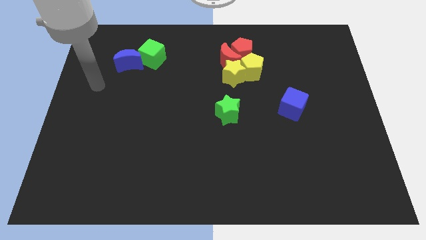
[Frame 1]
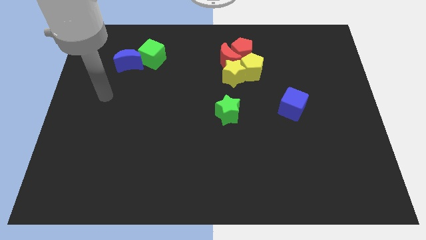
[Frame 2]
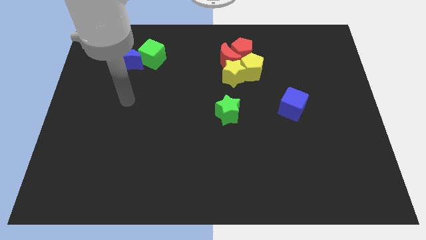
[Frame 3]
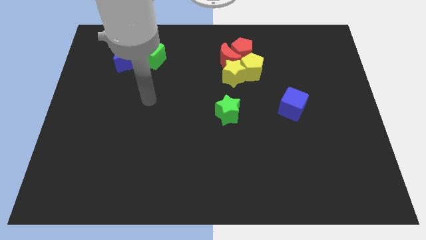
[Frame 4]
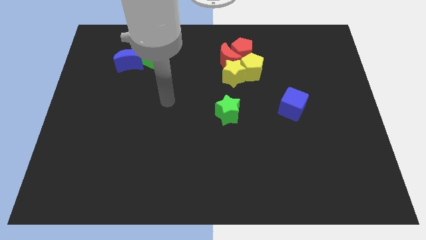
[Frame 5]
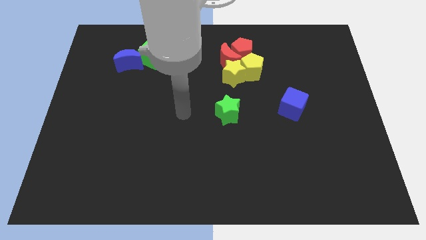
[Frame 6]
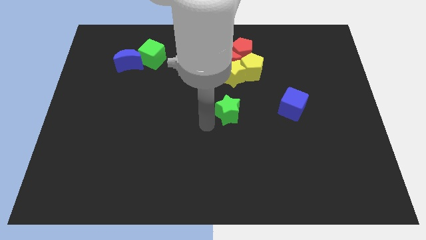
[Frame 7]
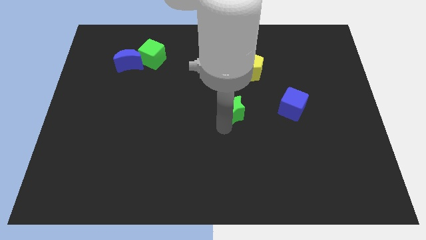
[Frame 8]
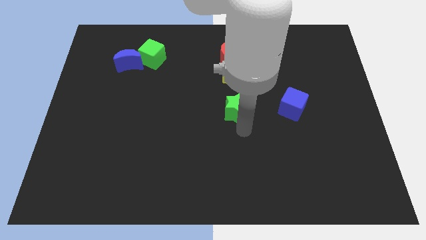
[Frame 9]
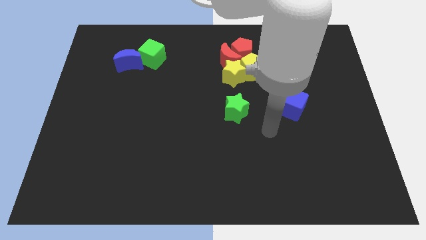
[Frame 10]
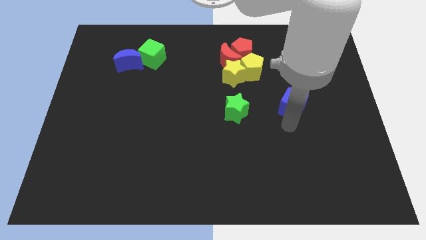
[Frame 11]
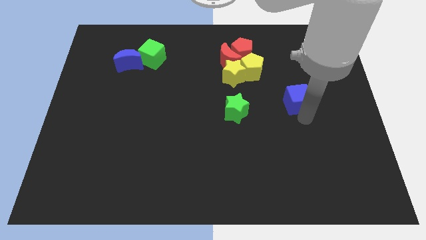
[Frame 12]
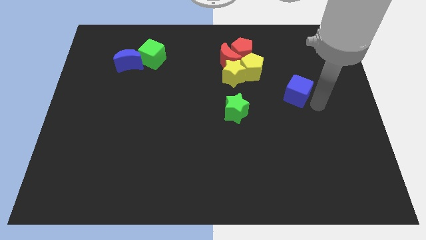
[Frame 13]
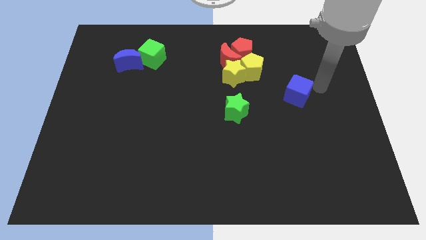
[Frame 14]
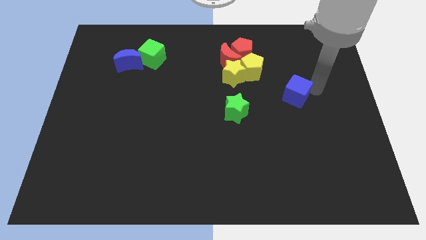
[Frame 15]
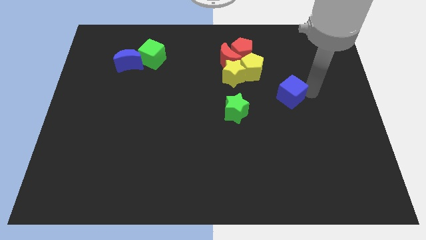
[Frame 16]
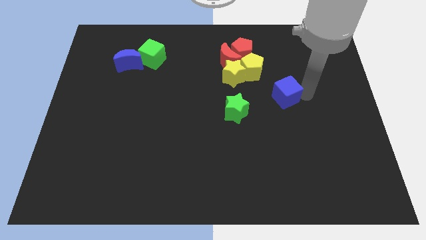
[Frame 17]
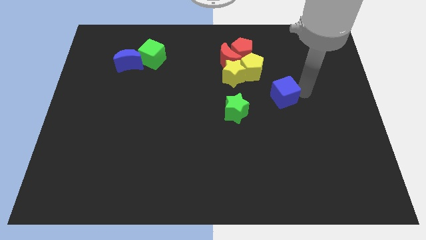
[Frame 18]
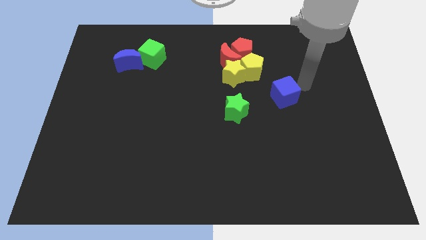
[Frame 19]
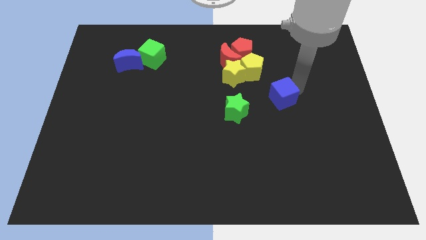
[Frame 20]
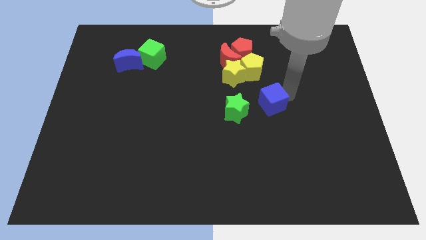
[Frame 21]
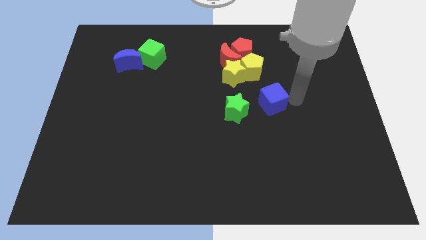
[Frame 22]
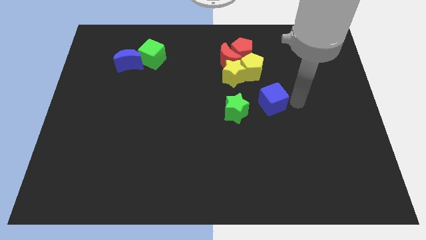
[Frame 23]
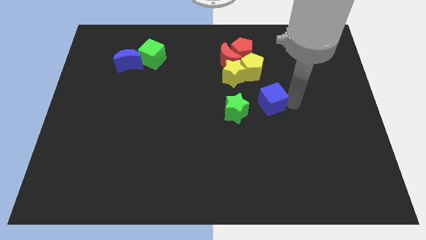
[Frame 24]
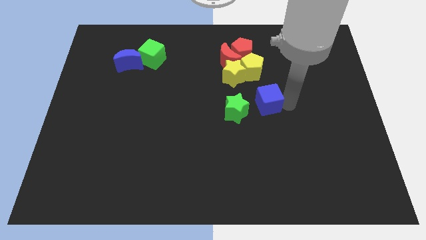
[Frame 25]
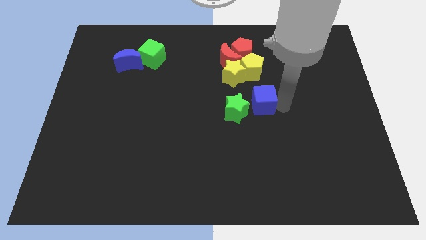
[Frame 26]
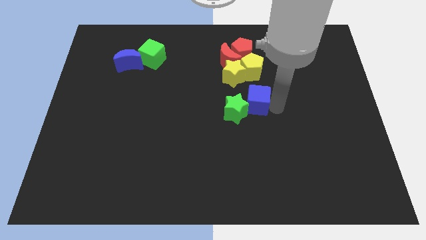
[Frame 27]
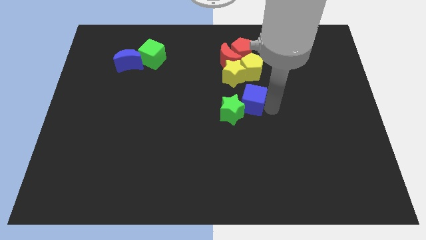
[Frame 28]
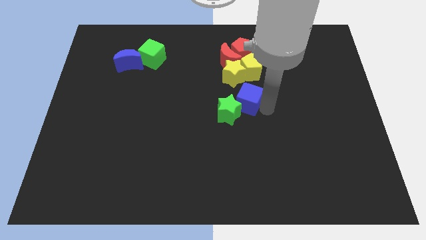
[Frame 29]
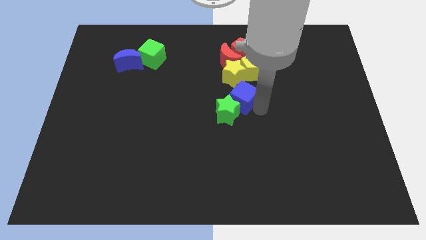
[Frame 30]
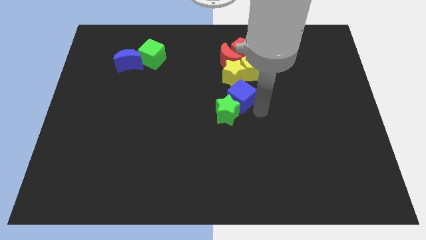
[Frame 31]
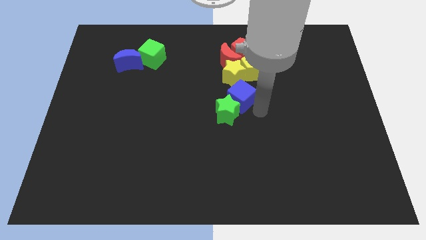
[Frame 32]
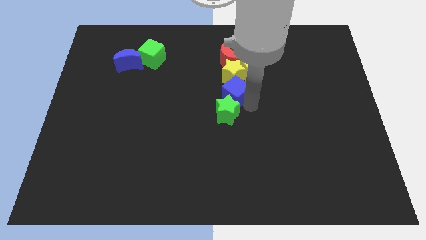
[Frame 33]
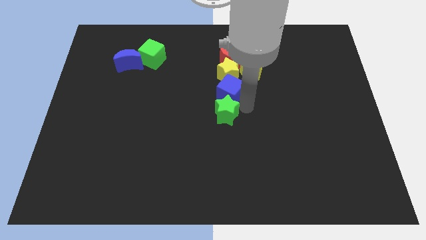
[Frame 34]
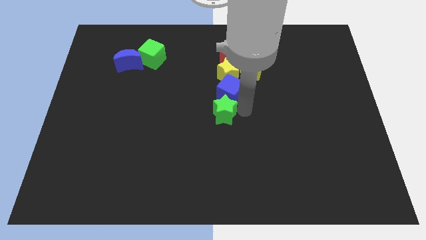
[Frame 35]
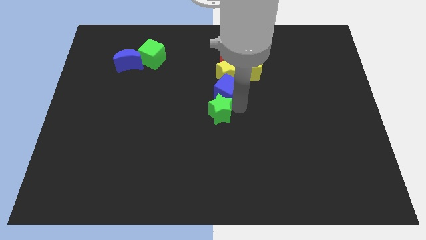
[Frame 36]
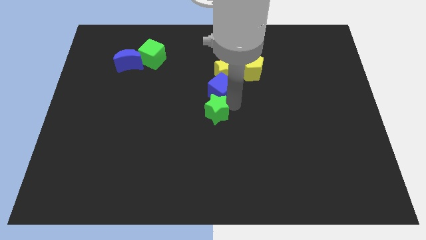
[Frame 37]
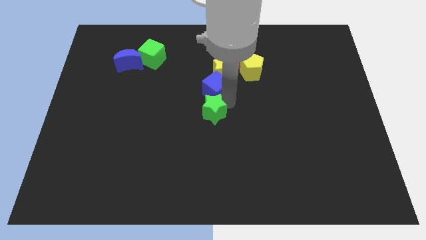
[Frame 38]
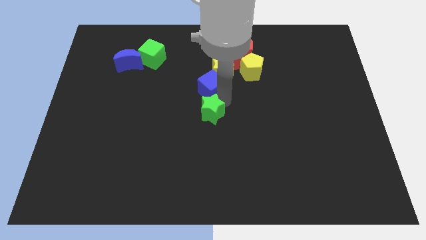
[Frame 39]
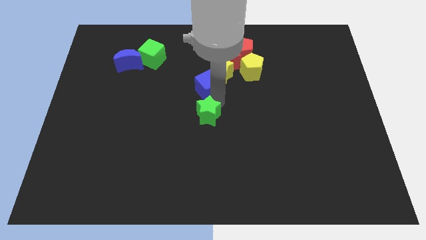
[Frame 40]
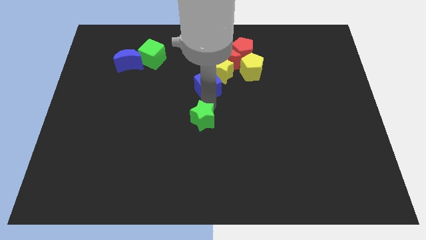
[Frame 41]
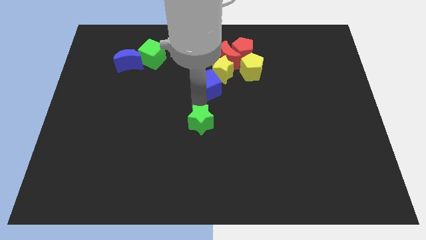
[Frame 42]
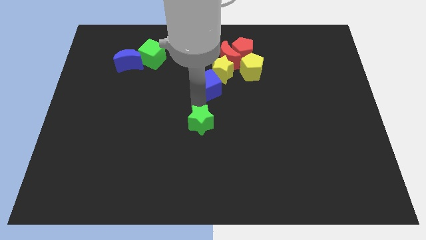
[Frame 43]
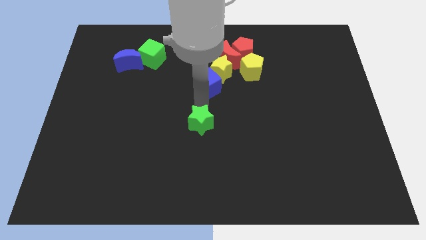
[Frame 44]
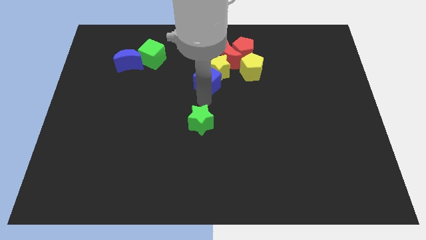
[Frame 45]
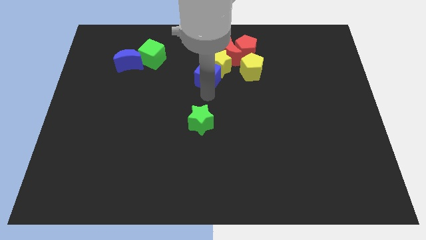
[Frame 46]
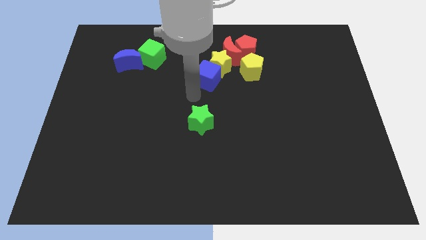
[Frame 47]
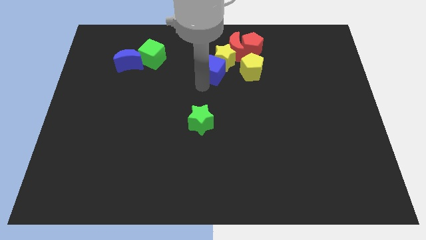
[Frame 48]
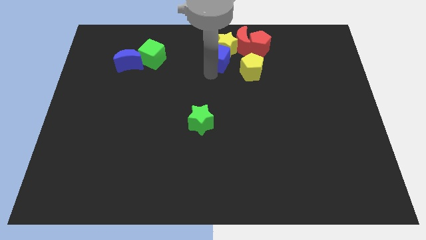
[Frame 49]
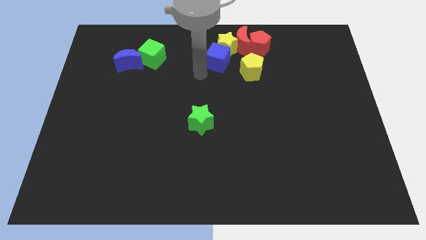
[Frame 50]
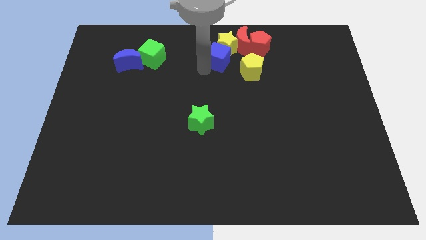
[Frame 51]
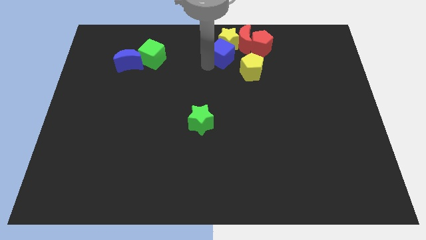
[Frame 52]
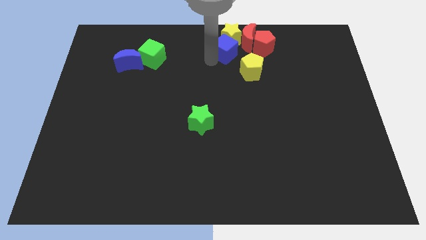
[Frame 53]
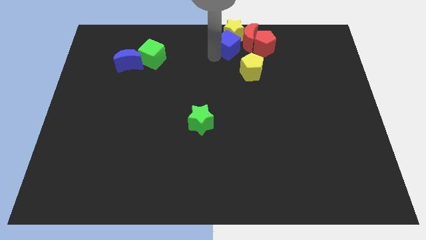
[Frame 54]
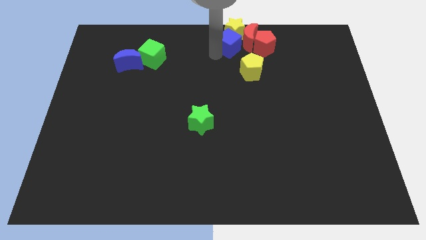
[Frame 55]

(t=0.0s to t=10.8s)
move the blue cube next to the red moon

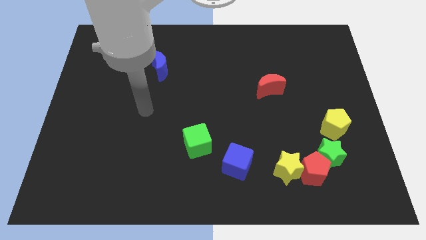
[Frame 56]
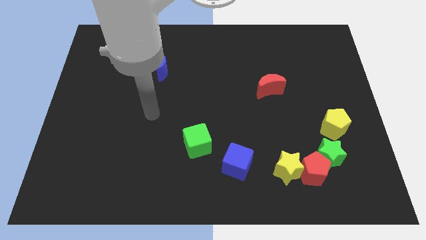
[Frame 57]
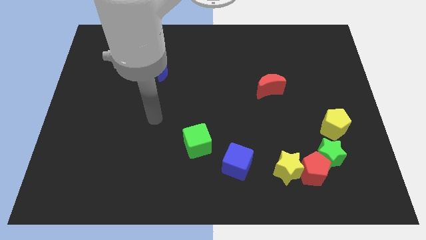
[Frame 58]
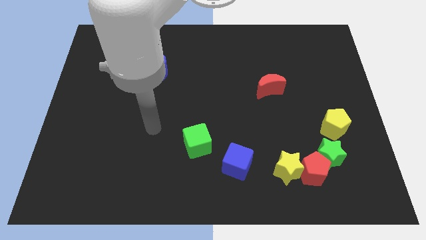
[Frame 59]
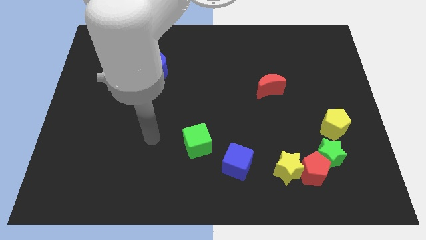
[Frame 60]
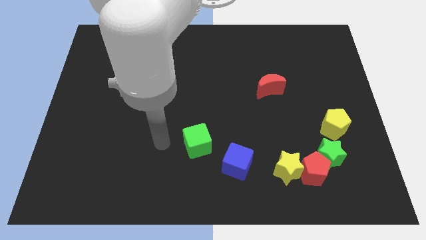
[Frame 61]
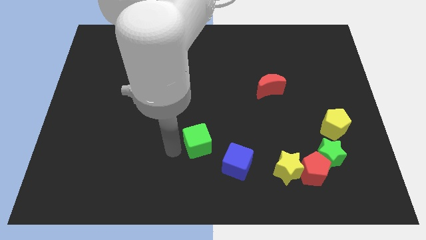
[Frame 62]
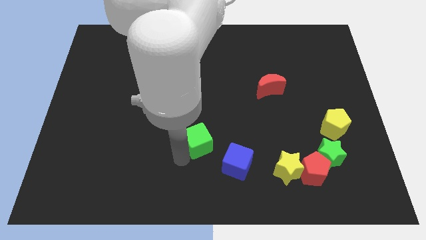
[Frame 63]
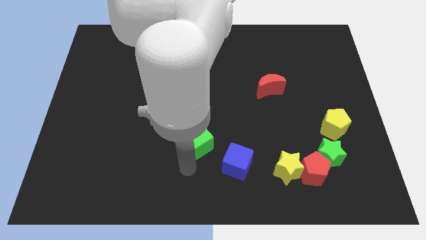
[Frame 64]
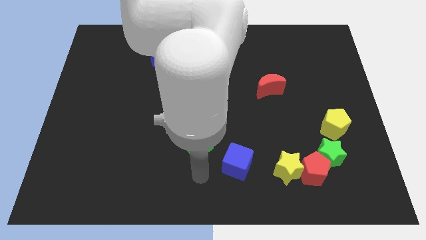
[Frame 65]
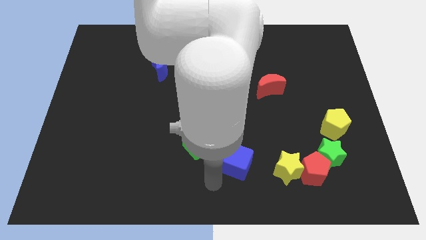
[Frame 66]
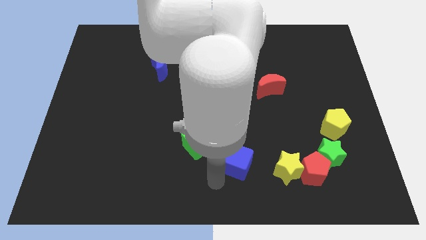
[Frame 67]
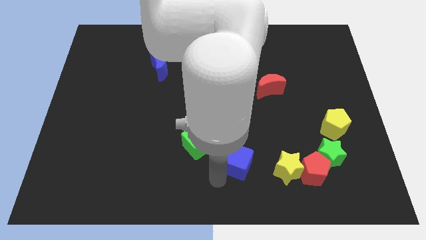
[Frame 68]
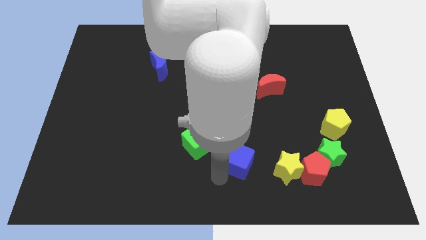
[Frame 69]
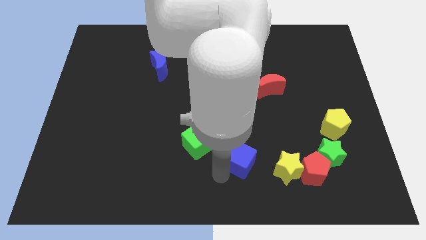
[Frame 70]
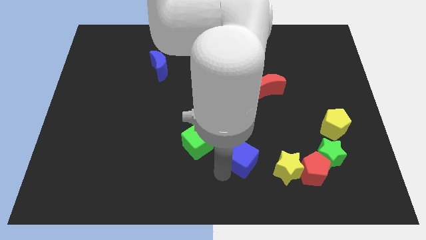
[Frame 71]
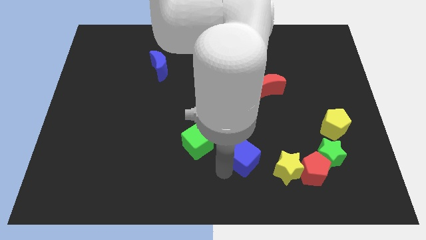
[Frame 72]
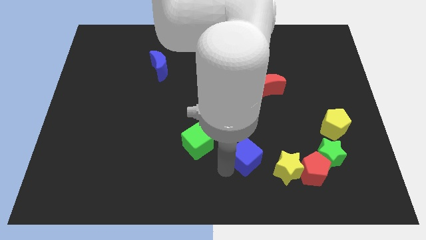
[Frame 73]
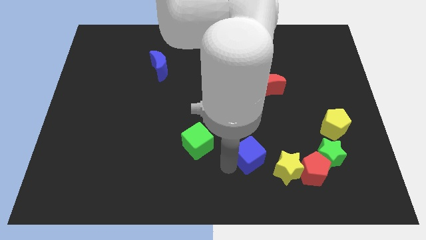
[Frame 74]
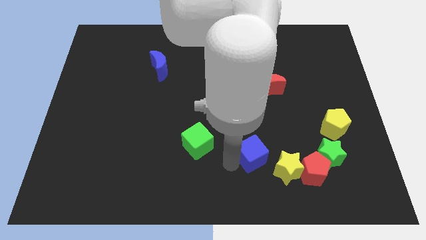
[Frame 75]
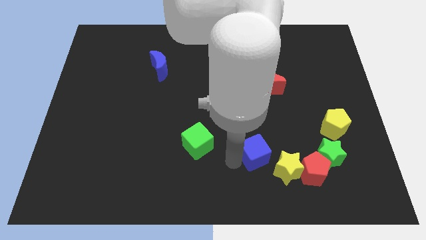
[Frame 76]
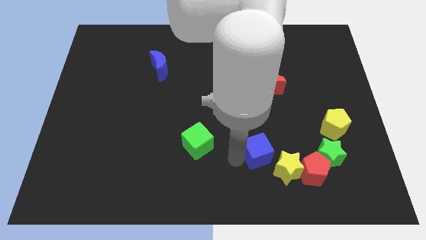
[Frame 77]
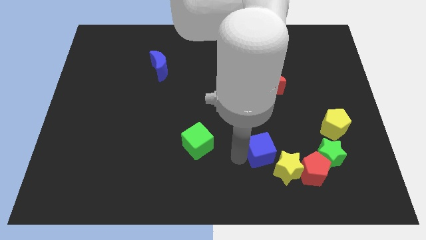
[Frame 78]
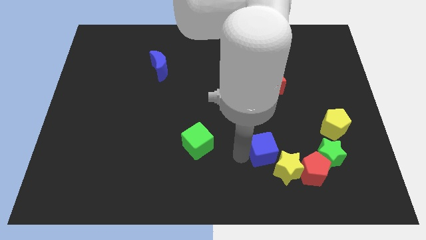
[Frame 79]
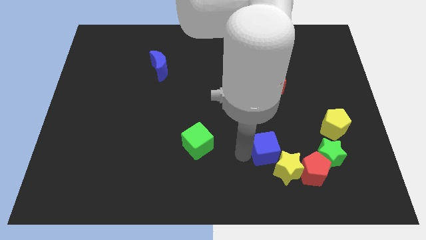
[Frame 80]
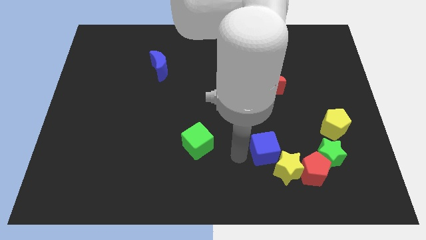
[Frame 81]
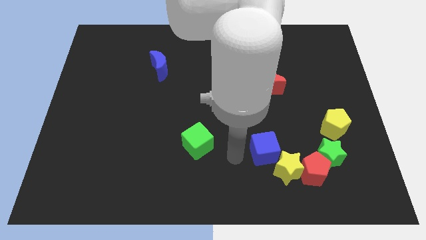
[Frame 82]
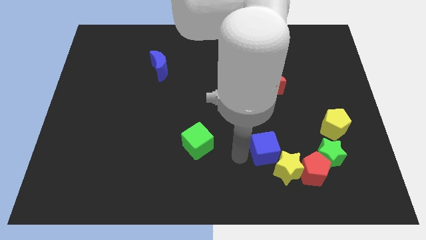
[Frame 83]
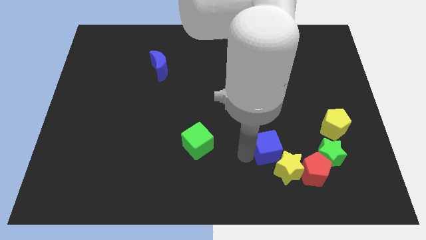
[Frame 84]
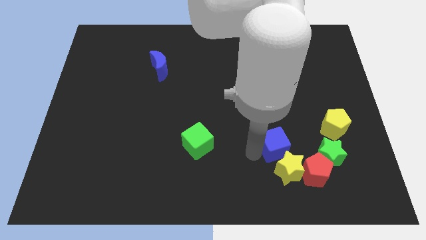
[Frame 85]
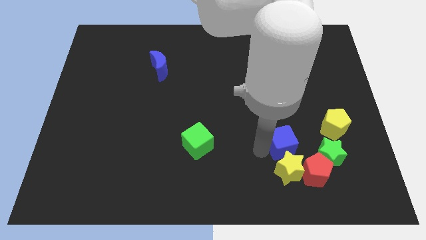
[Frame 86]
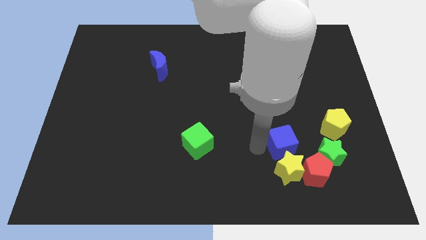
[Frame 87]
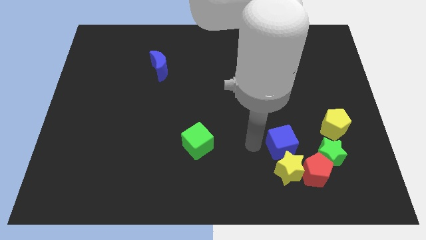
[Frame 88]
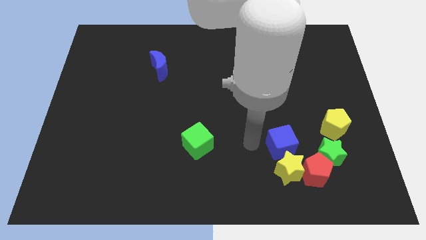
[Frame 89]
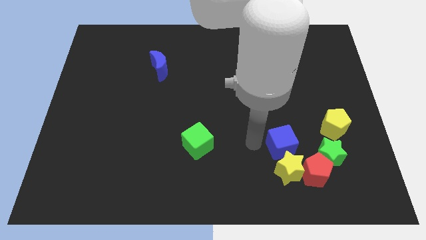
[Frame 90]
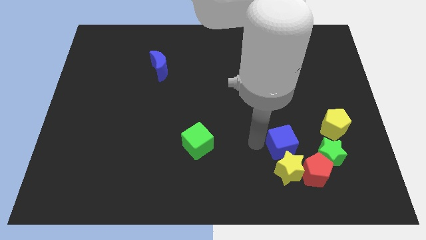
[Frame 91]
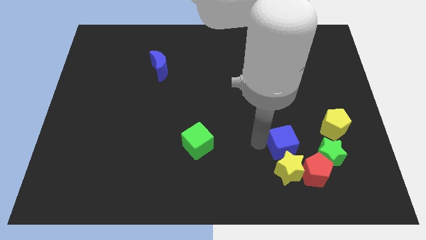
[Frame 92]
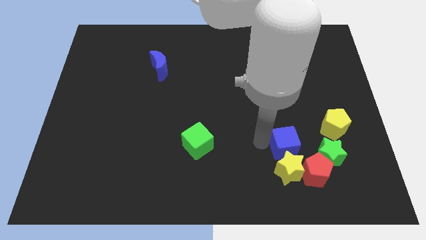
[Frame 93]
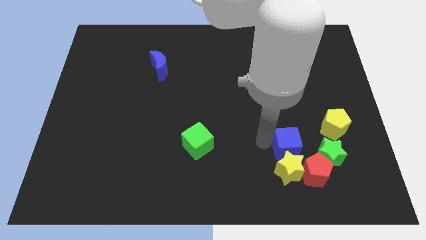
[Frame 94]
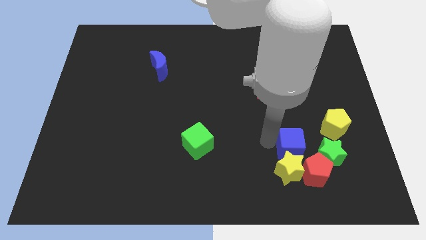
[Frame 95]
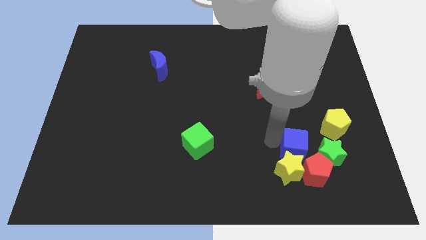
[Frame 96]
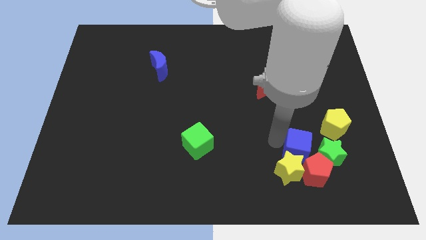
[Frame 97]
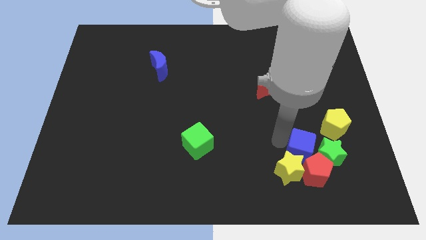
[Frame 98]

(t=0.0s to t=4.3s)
push the blue cube next to the green star
